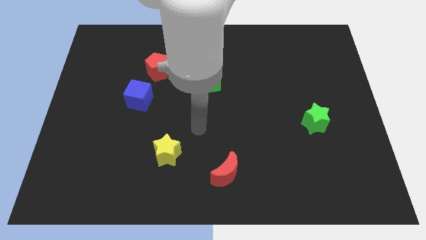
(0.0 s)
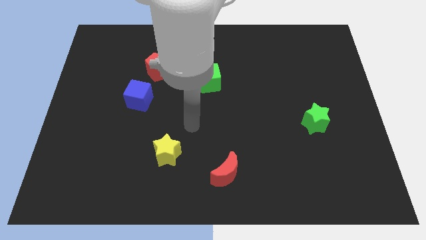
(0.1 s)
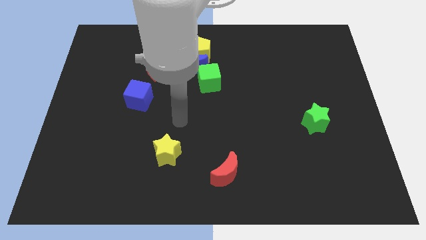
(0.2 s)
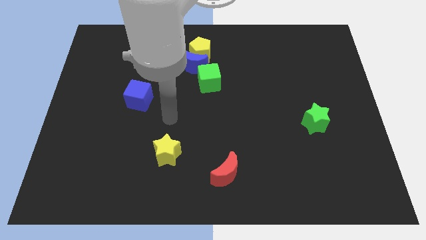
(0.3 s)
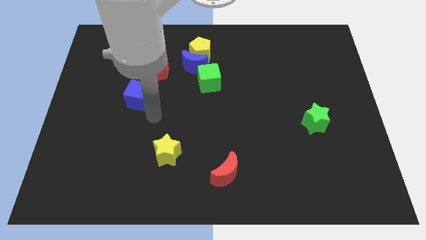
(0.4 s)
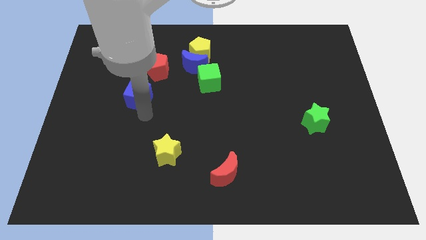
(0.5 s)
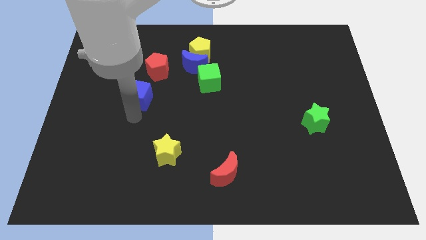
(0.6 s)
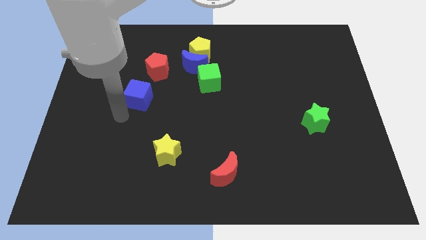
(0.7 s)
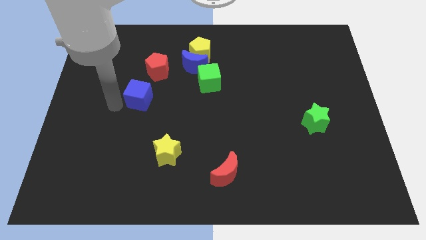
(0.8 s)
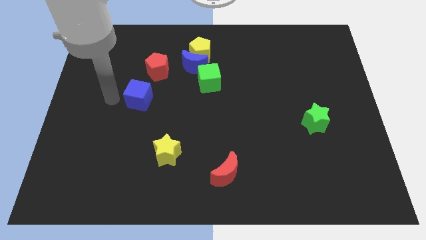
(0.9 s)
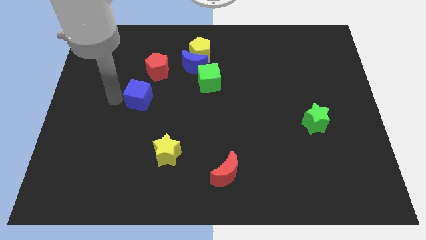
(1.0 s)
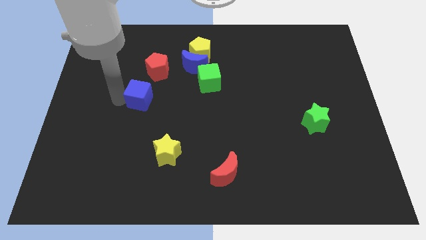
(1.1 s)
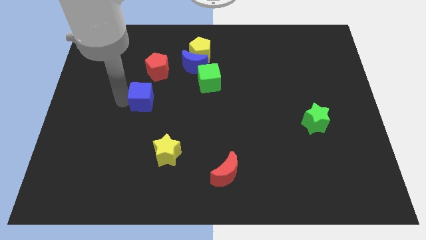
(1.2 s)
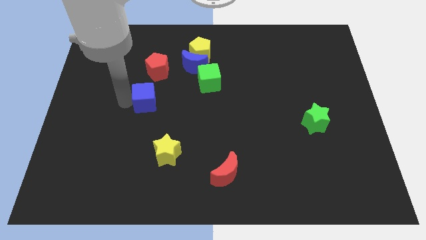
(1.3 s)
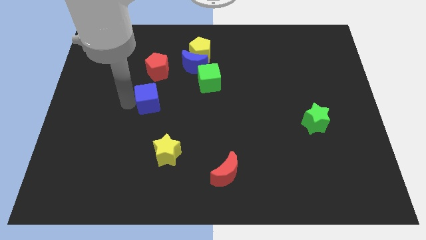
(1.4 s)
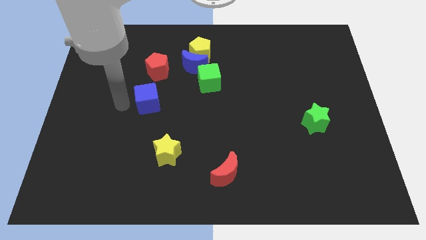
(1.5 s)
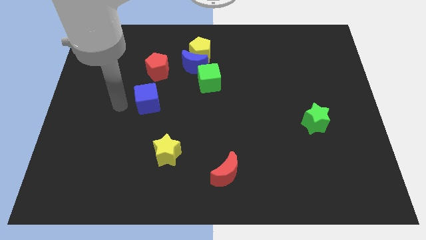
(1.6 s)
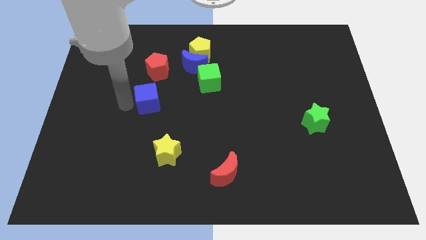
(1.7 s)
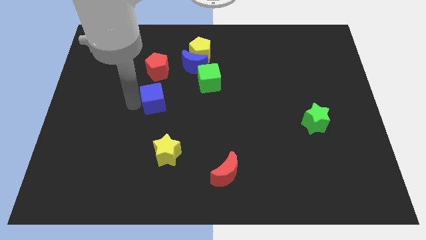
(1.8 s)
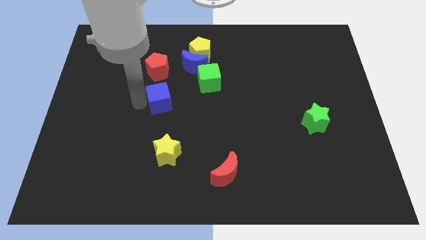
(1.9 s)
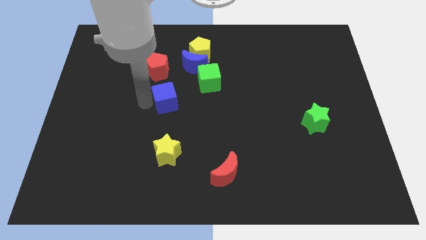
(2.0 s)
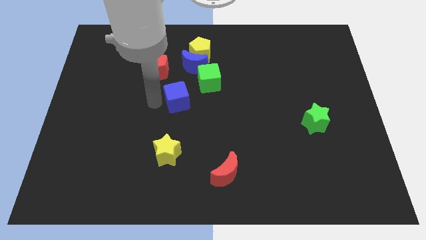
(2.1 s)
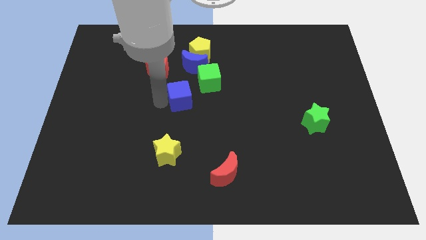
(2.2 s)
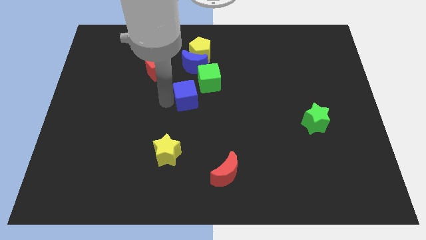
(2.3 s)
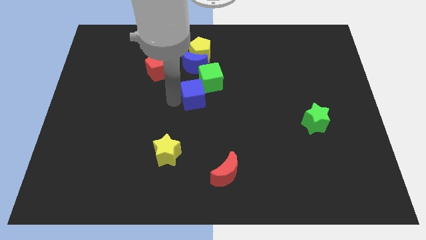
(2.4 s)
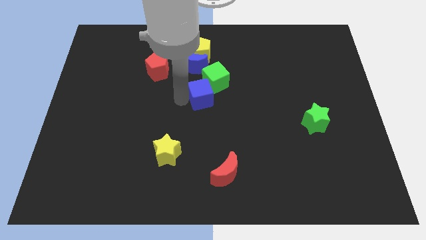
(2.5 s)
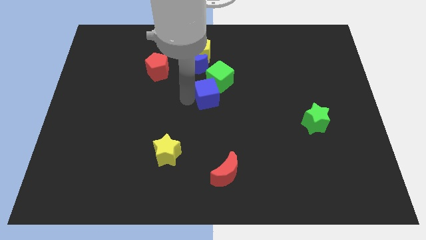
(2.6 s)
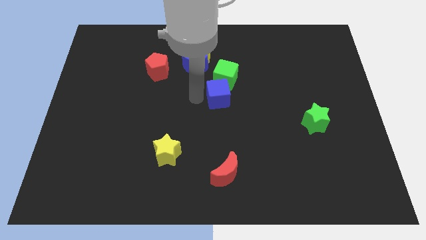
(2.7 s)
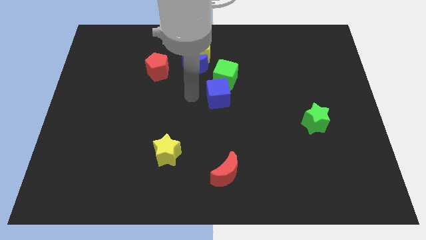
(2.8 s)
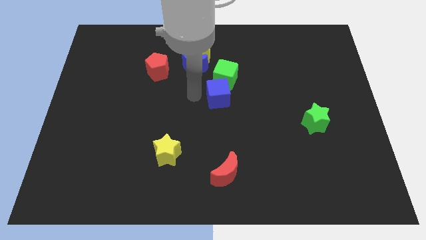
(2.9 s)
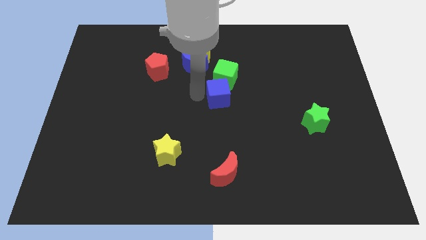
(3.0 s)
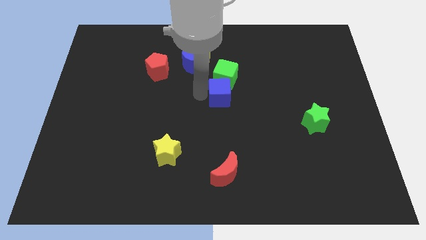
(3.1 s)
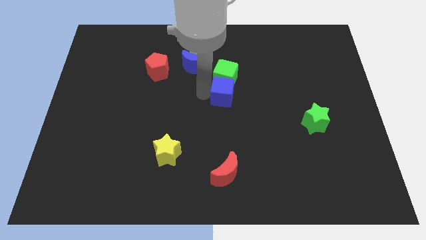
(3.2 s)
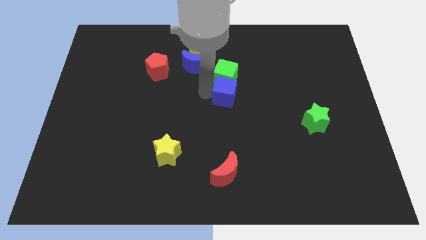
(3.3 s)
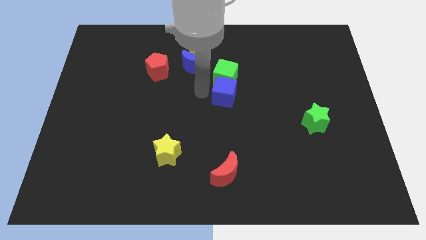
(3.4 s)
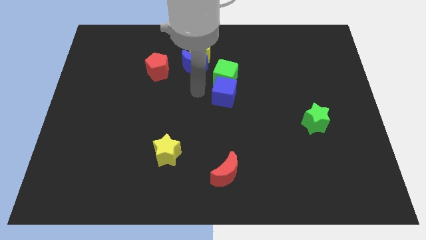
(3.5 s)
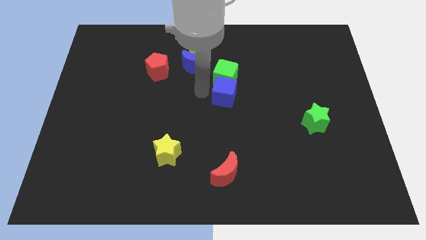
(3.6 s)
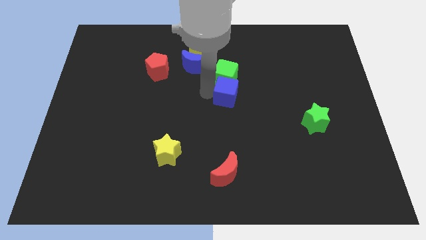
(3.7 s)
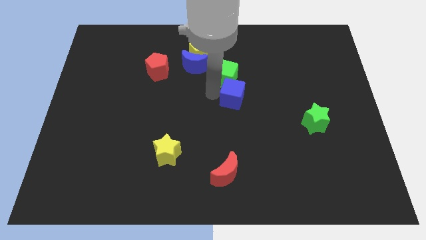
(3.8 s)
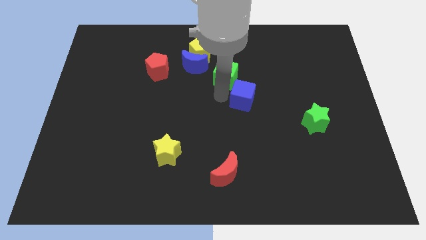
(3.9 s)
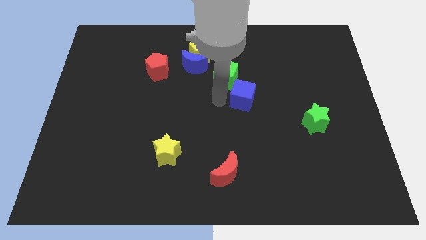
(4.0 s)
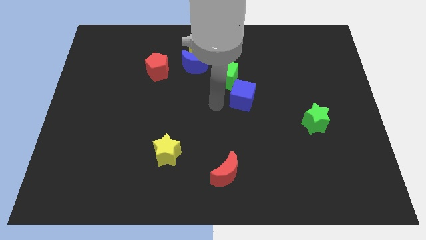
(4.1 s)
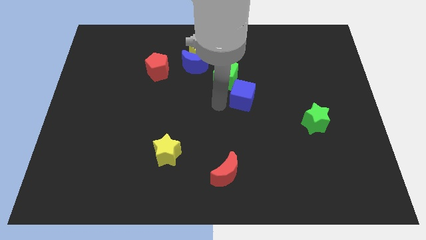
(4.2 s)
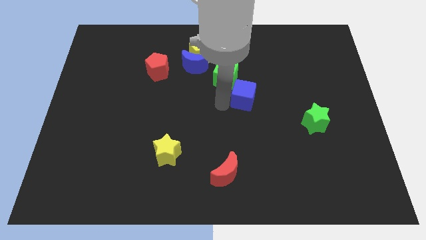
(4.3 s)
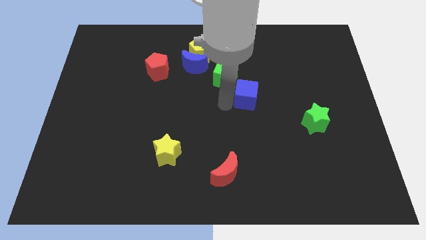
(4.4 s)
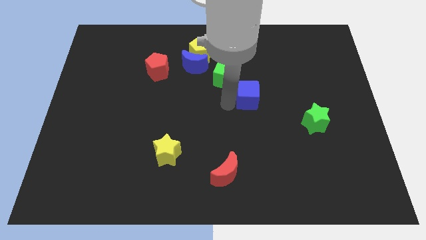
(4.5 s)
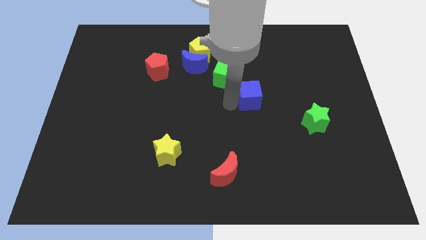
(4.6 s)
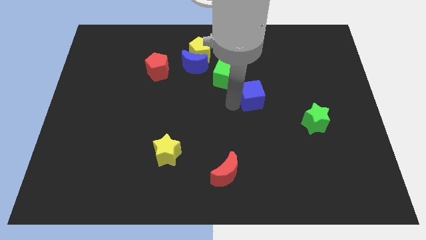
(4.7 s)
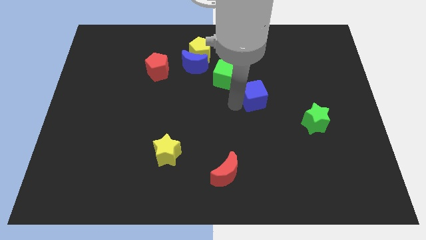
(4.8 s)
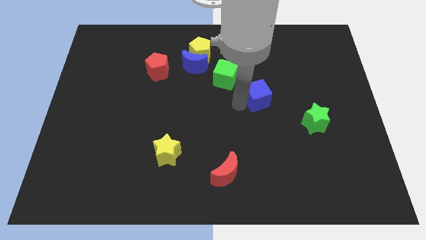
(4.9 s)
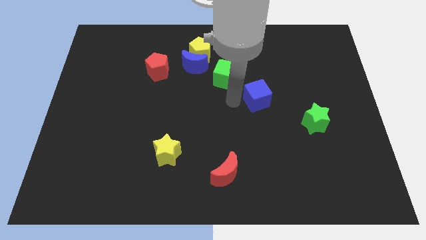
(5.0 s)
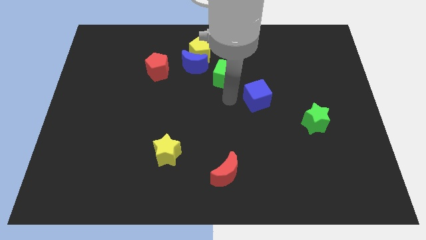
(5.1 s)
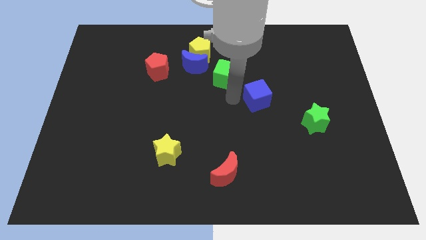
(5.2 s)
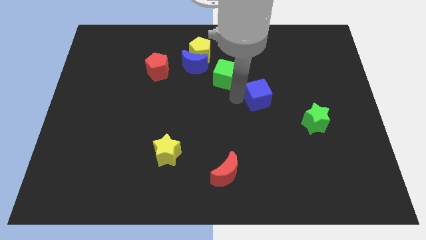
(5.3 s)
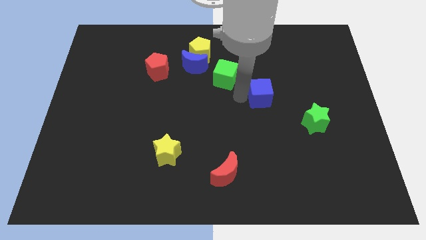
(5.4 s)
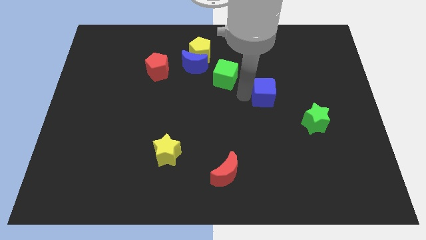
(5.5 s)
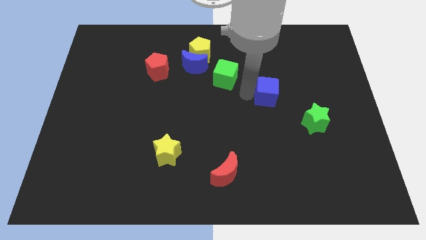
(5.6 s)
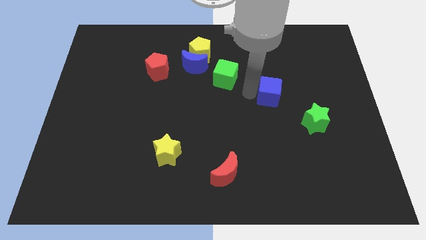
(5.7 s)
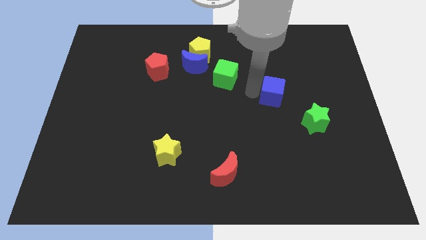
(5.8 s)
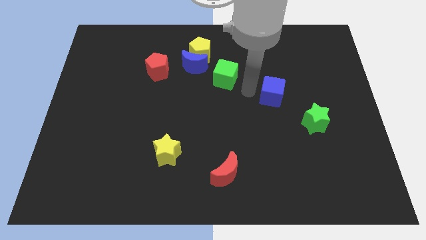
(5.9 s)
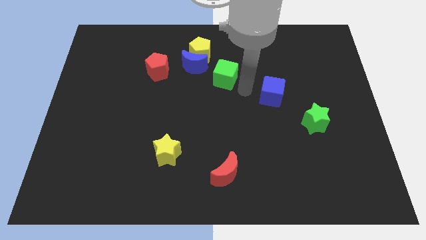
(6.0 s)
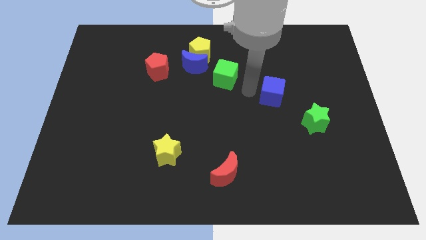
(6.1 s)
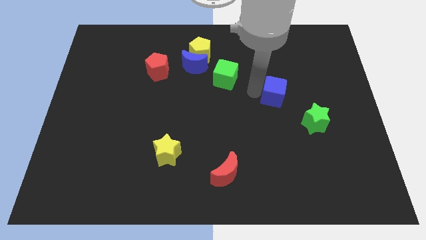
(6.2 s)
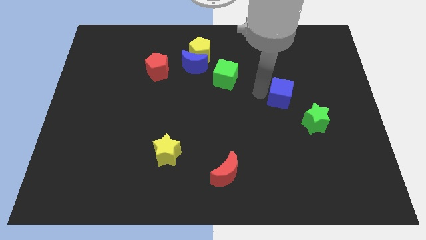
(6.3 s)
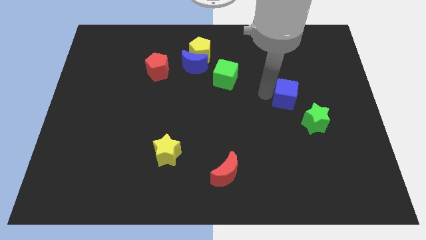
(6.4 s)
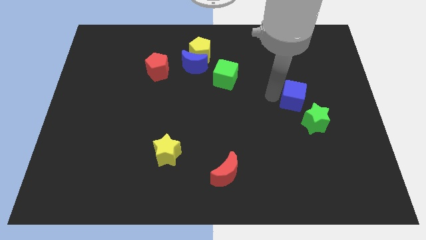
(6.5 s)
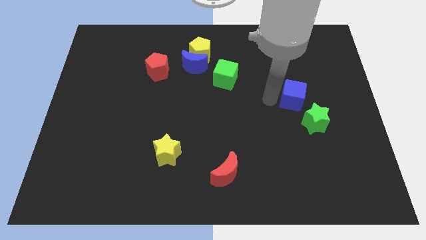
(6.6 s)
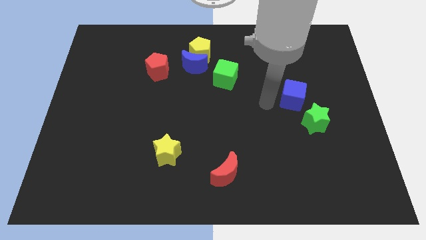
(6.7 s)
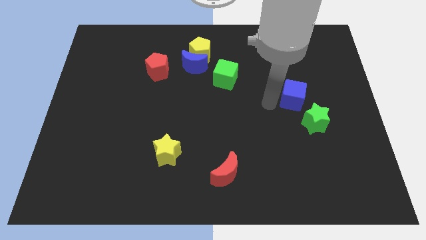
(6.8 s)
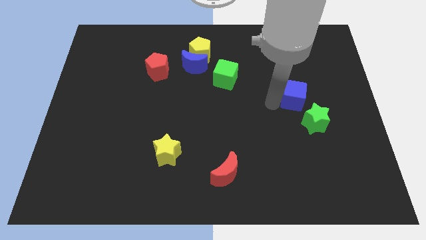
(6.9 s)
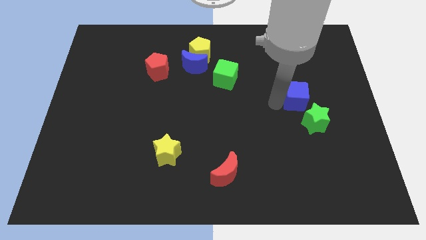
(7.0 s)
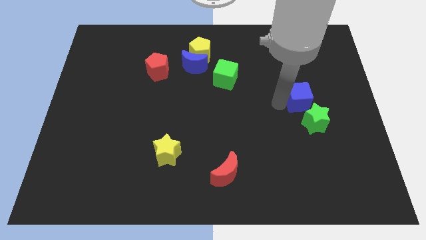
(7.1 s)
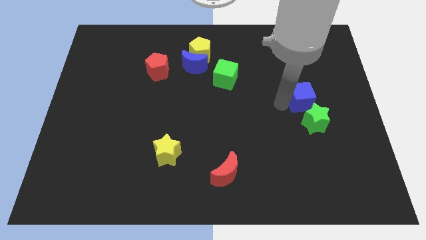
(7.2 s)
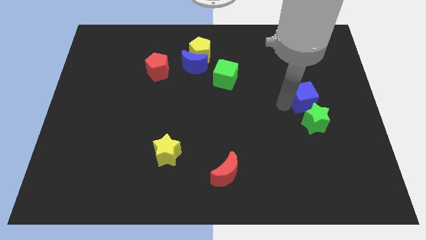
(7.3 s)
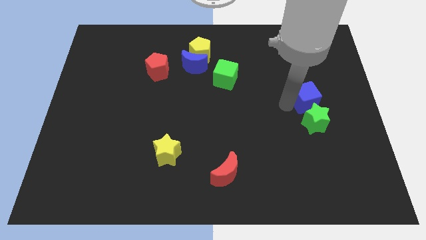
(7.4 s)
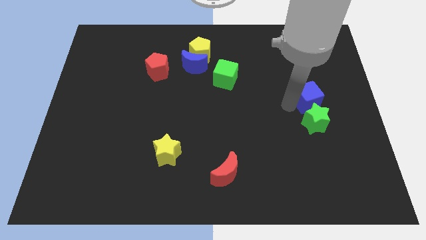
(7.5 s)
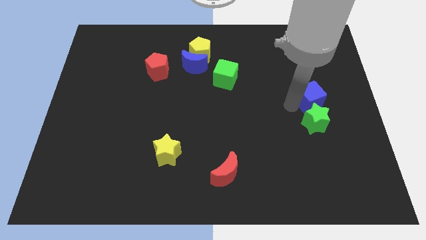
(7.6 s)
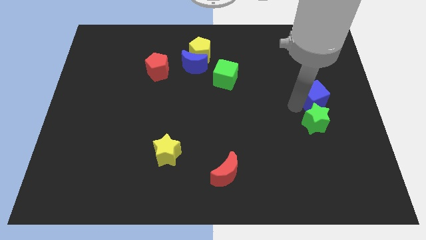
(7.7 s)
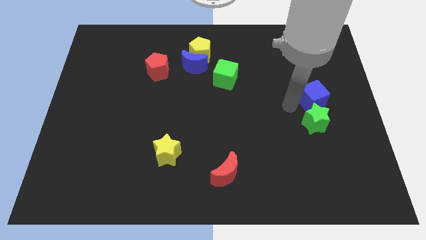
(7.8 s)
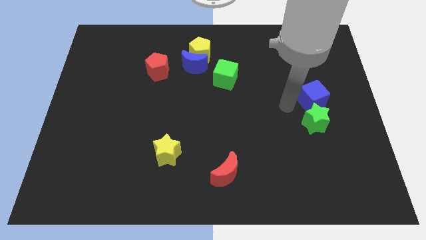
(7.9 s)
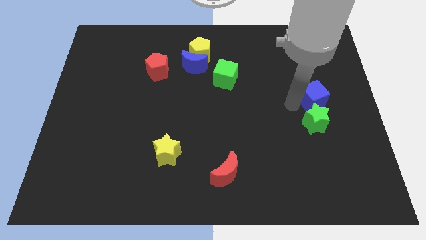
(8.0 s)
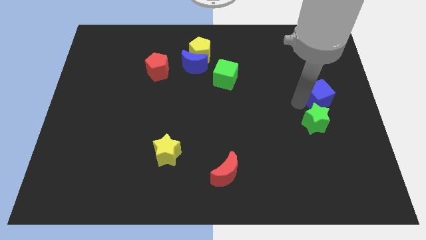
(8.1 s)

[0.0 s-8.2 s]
slide the blue cube to the right side
